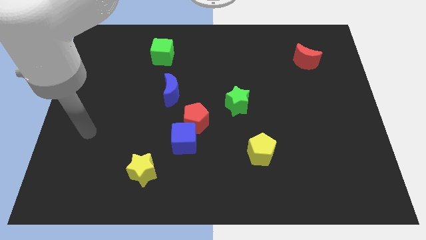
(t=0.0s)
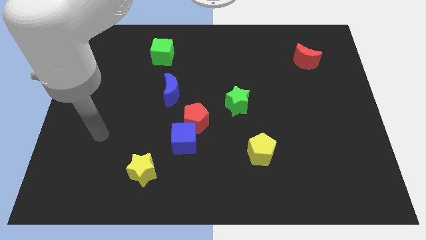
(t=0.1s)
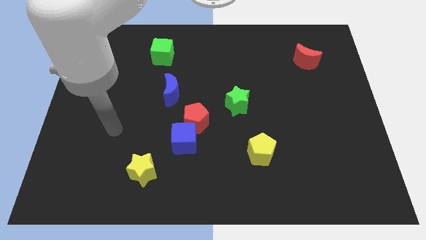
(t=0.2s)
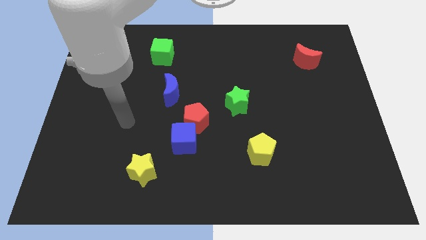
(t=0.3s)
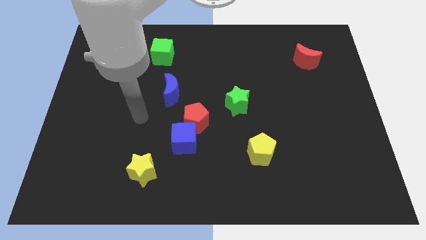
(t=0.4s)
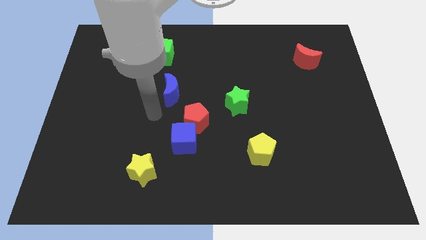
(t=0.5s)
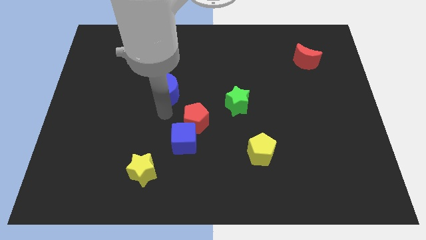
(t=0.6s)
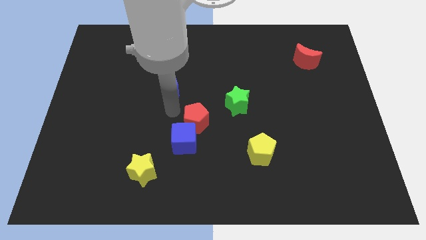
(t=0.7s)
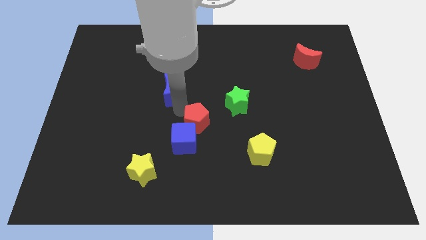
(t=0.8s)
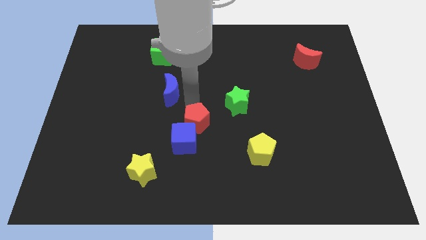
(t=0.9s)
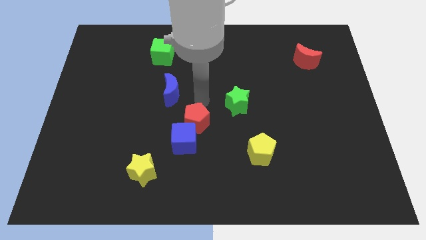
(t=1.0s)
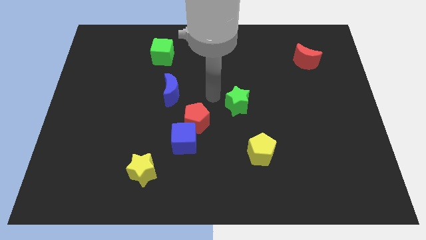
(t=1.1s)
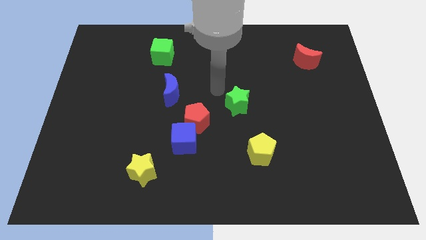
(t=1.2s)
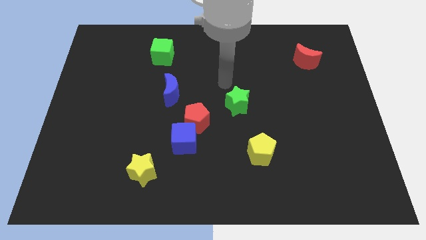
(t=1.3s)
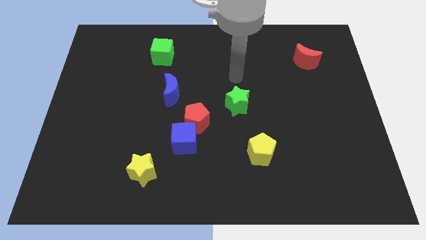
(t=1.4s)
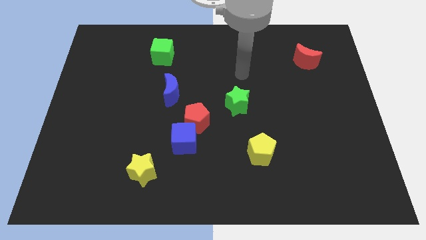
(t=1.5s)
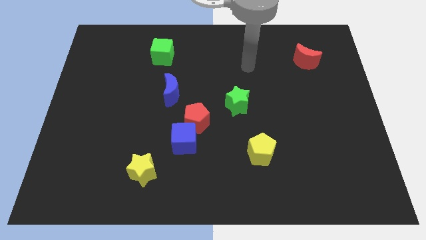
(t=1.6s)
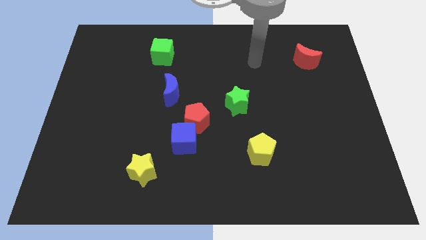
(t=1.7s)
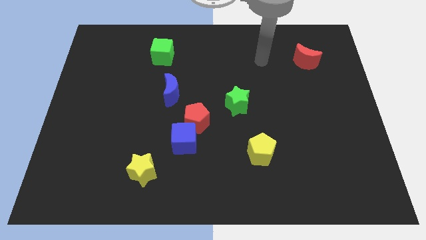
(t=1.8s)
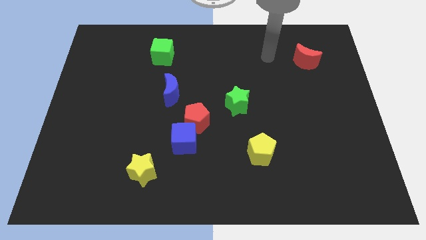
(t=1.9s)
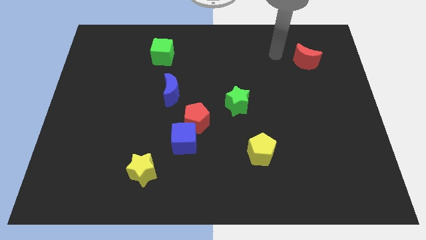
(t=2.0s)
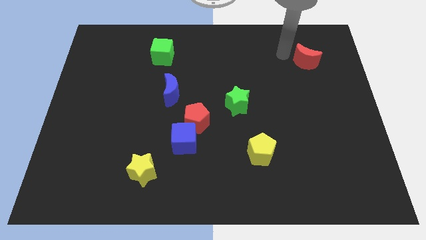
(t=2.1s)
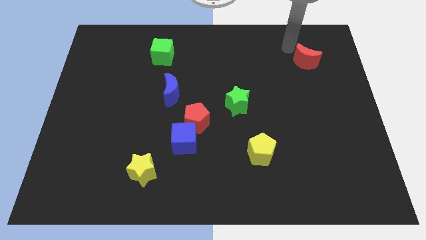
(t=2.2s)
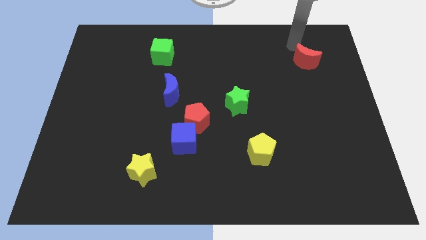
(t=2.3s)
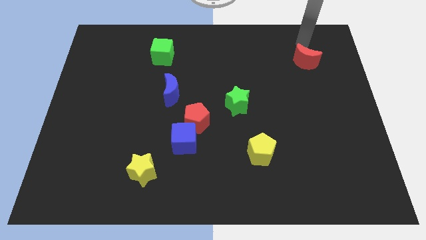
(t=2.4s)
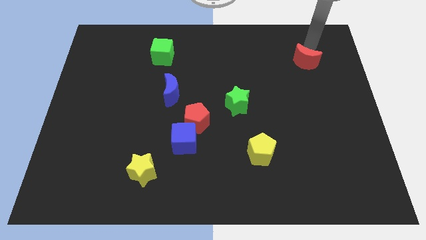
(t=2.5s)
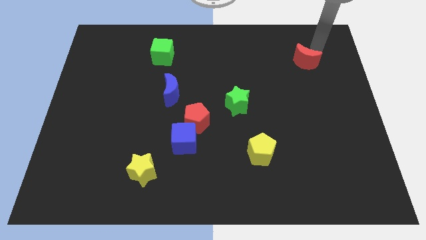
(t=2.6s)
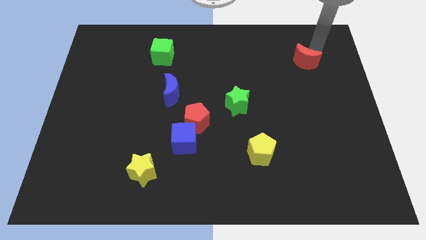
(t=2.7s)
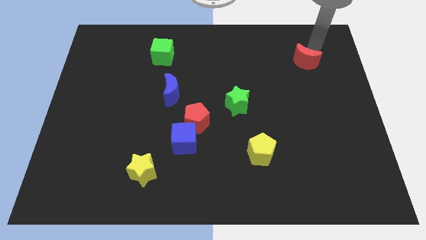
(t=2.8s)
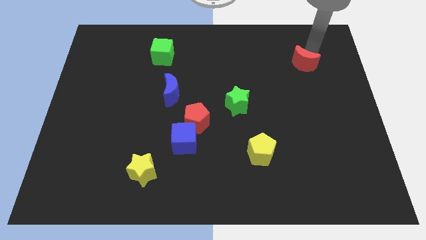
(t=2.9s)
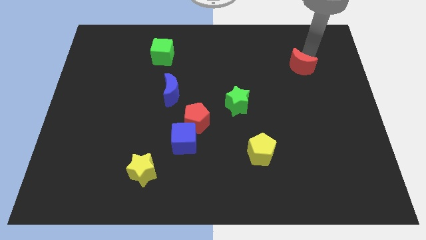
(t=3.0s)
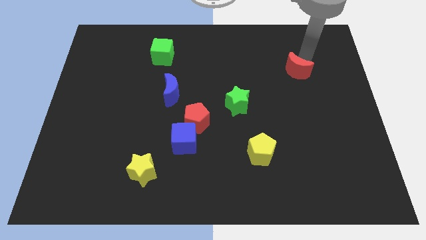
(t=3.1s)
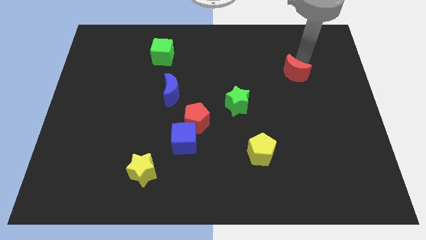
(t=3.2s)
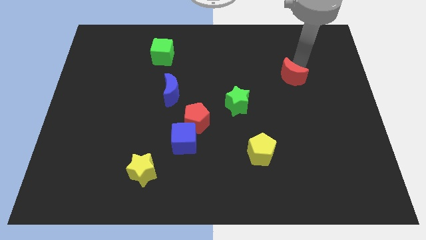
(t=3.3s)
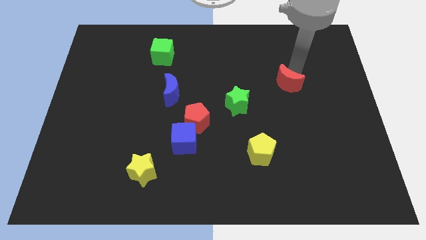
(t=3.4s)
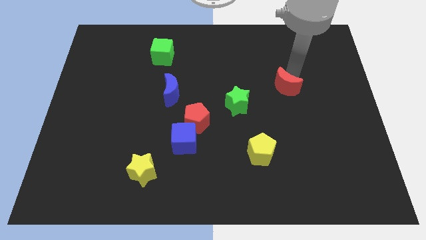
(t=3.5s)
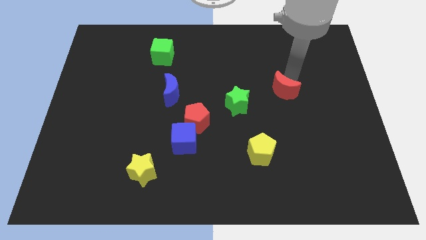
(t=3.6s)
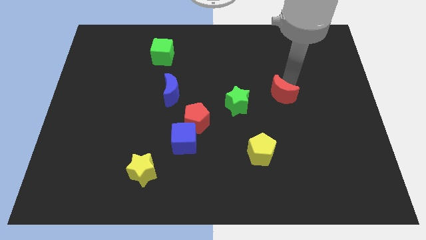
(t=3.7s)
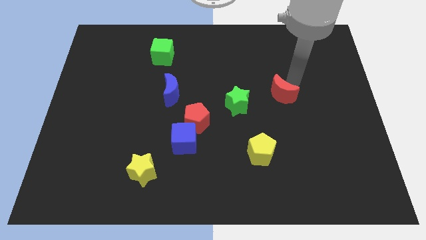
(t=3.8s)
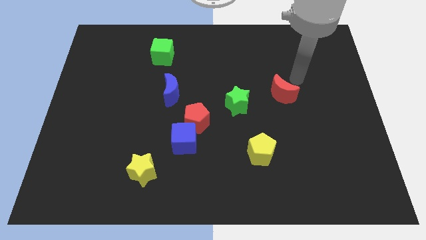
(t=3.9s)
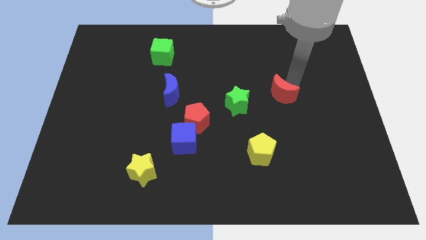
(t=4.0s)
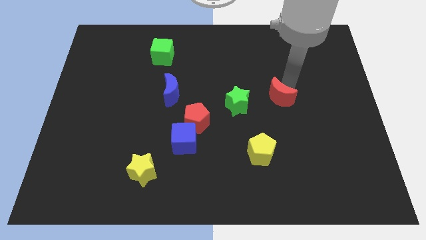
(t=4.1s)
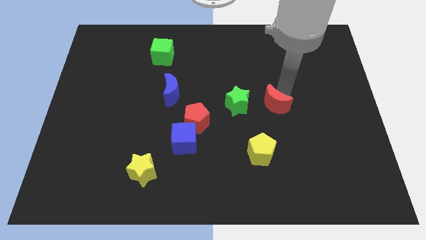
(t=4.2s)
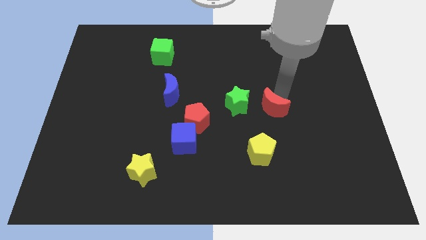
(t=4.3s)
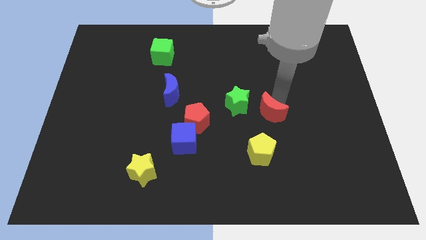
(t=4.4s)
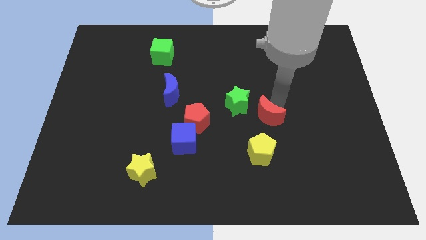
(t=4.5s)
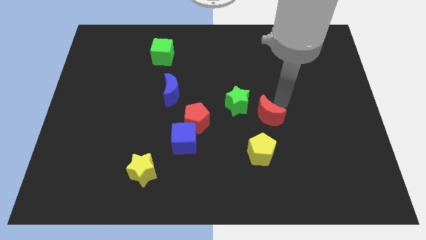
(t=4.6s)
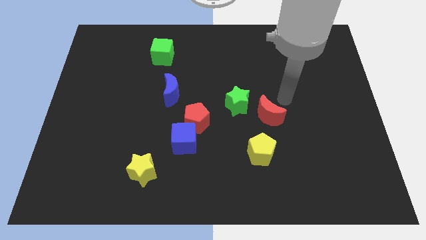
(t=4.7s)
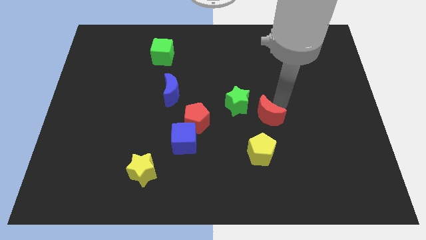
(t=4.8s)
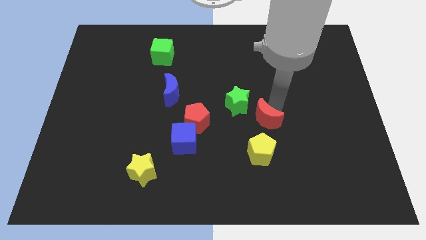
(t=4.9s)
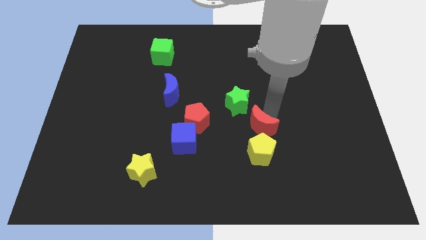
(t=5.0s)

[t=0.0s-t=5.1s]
put the red moon to the bottom side of the green star

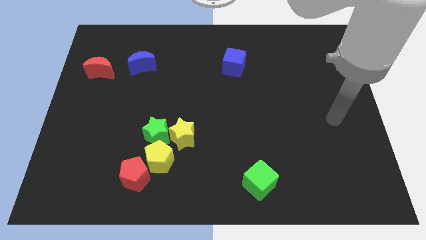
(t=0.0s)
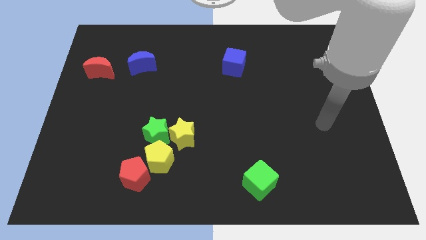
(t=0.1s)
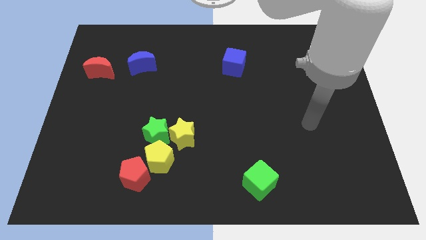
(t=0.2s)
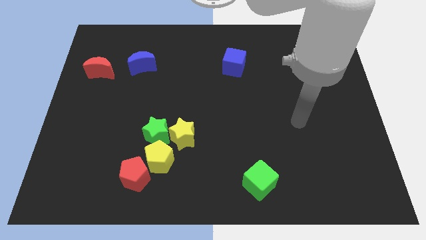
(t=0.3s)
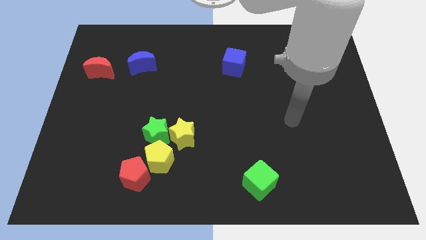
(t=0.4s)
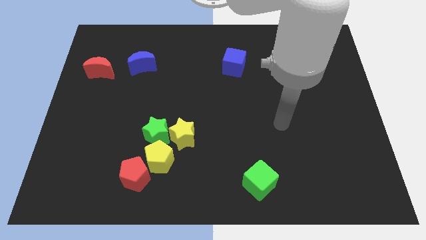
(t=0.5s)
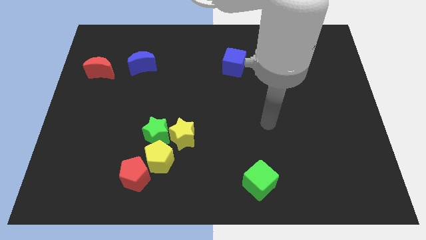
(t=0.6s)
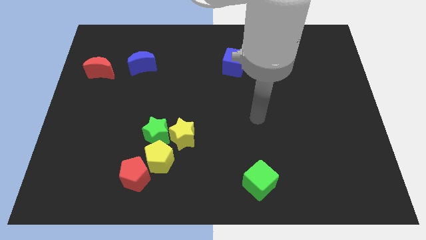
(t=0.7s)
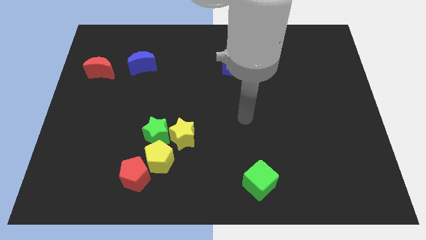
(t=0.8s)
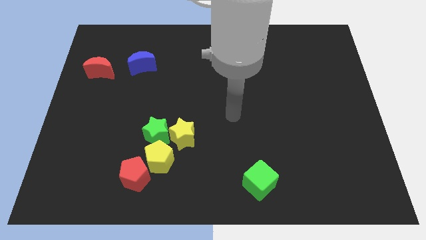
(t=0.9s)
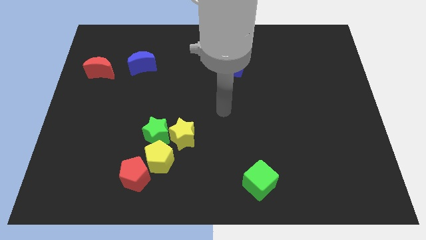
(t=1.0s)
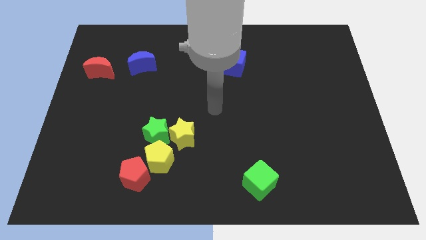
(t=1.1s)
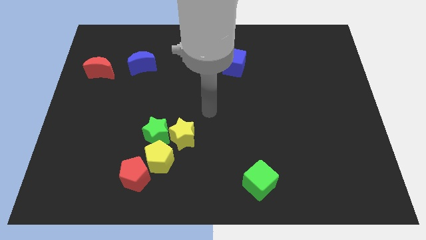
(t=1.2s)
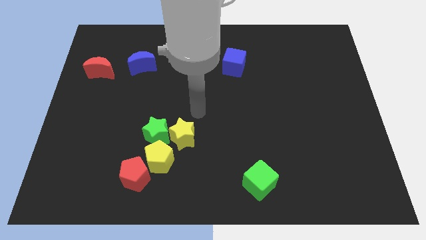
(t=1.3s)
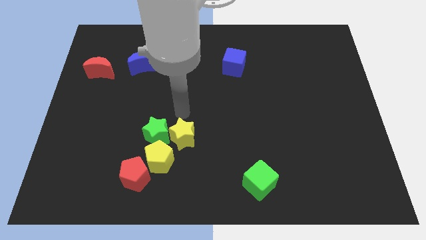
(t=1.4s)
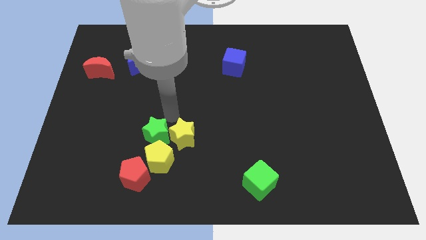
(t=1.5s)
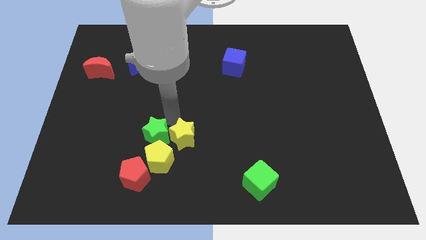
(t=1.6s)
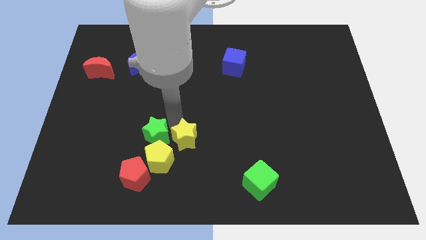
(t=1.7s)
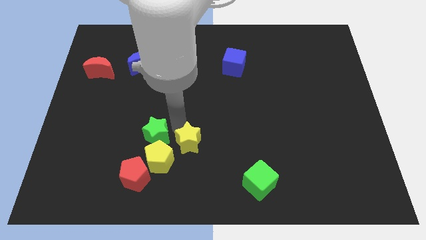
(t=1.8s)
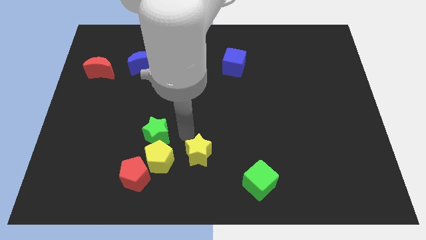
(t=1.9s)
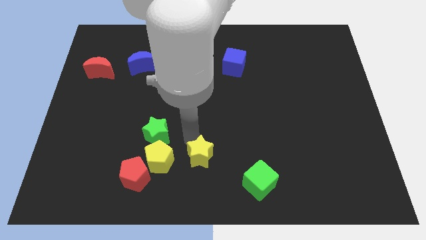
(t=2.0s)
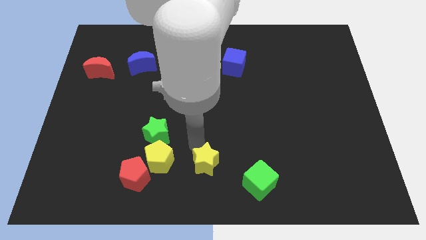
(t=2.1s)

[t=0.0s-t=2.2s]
put the yellow star just left of the green cube
